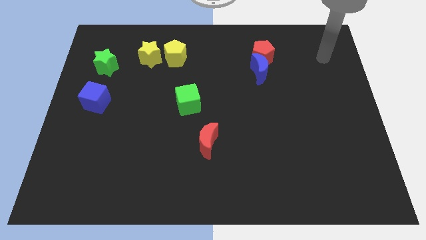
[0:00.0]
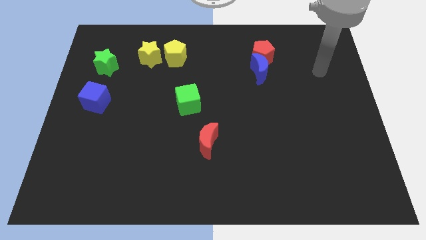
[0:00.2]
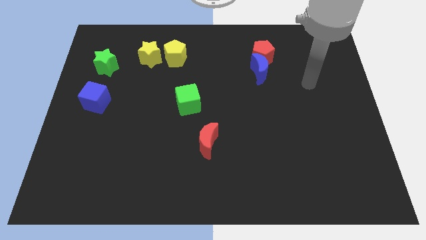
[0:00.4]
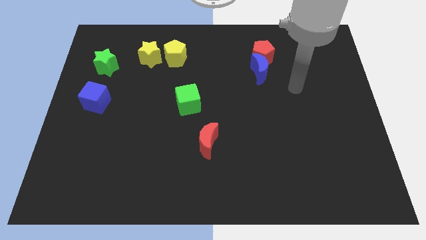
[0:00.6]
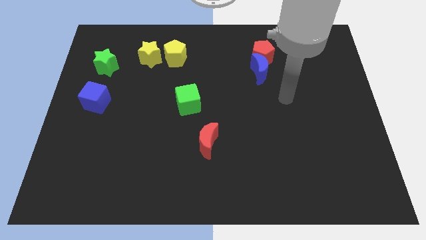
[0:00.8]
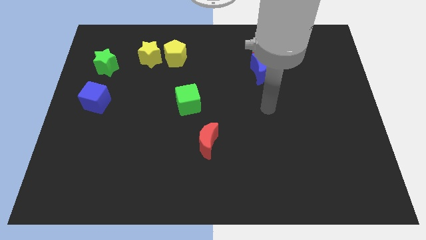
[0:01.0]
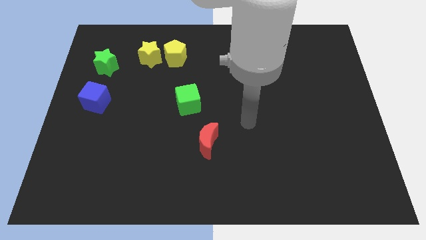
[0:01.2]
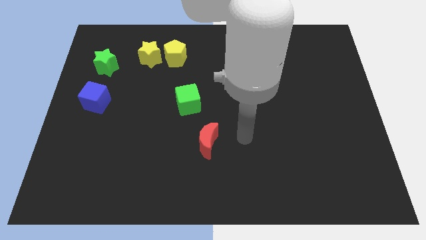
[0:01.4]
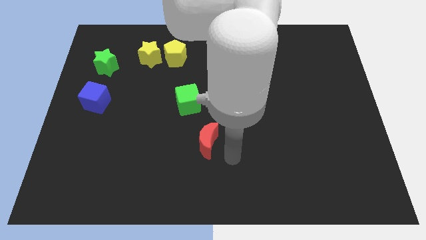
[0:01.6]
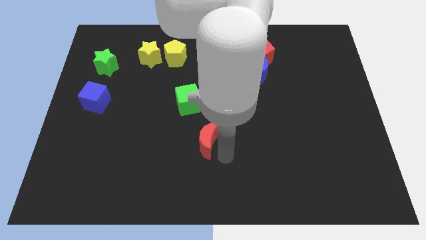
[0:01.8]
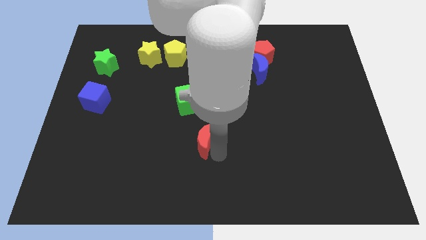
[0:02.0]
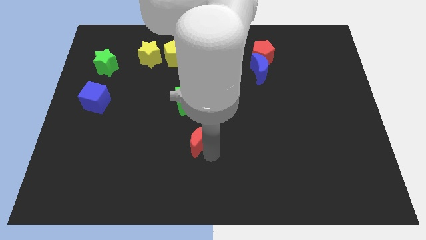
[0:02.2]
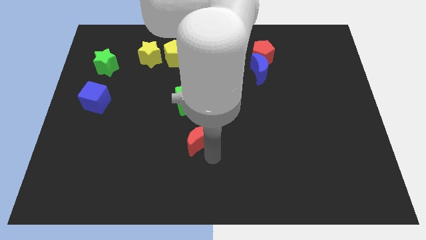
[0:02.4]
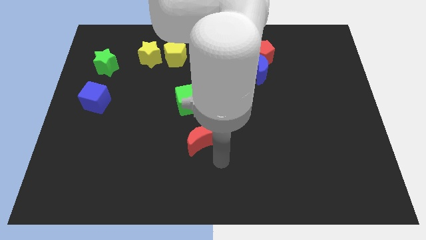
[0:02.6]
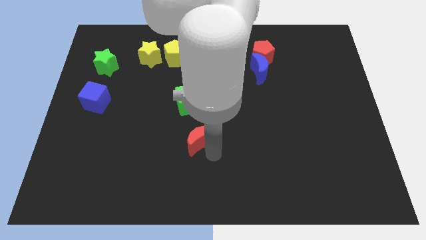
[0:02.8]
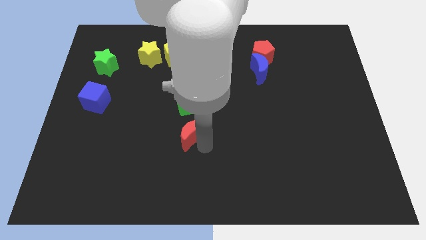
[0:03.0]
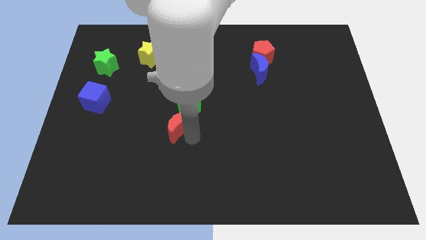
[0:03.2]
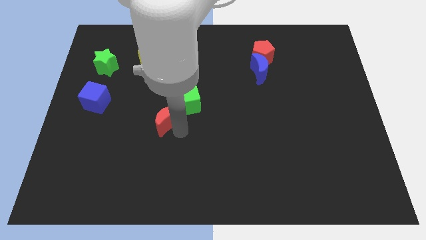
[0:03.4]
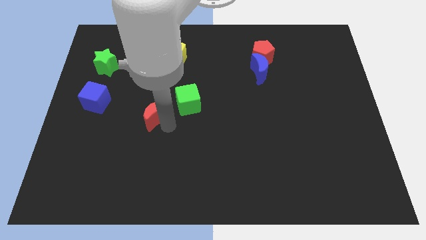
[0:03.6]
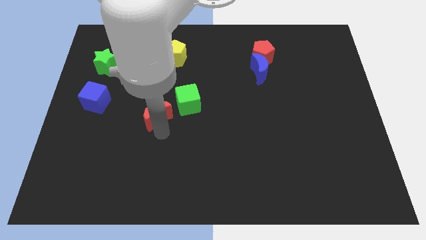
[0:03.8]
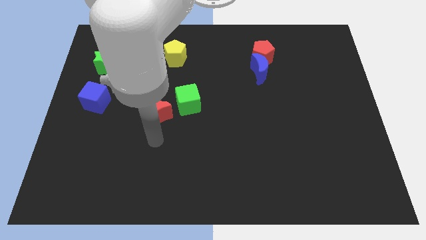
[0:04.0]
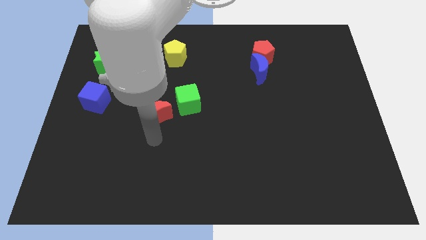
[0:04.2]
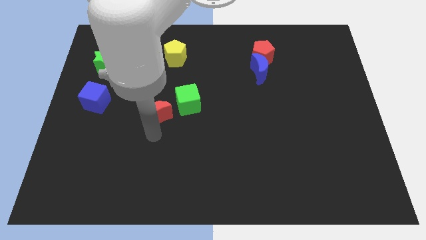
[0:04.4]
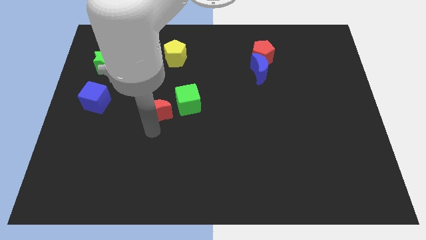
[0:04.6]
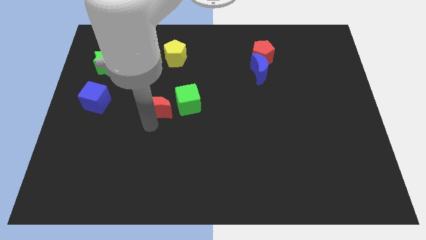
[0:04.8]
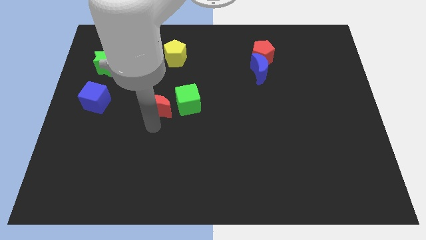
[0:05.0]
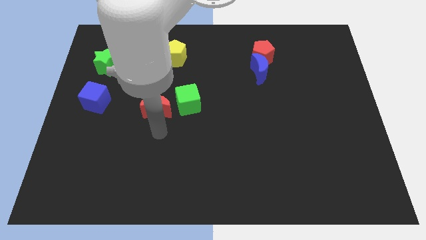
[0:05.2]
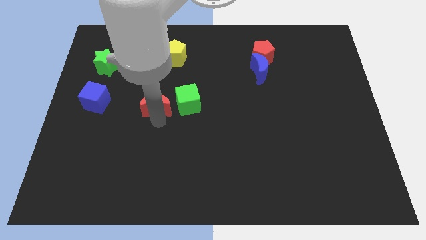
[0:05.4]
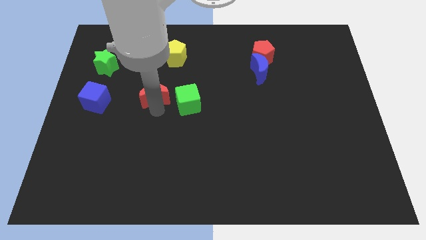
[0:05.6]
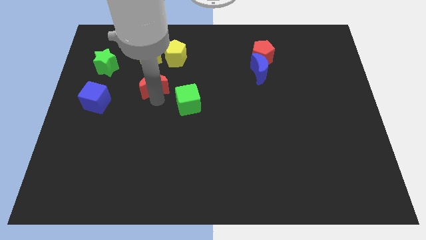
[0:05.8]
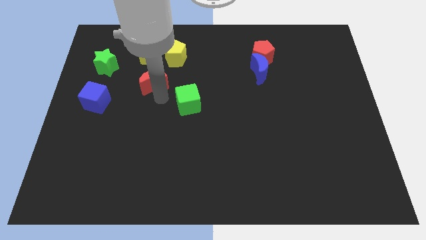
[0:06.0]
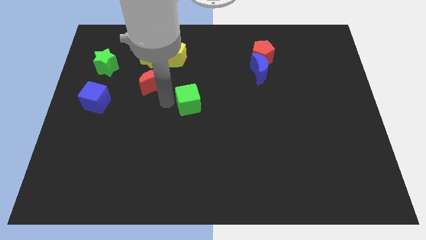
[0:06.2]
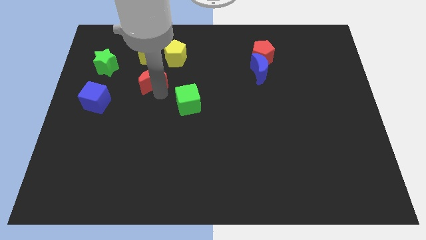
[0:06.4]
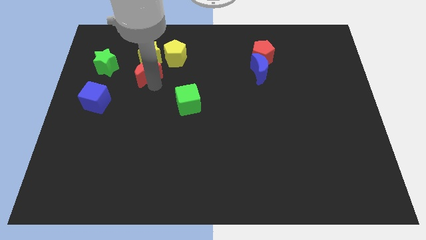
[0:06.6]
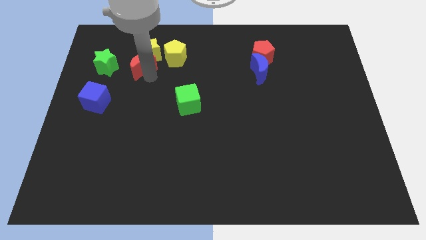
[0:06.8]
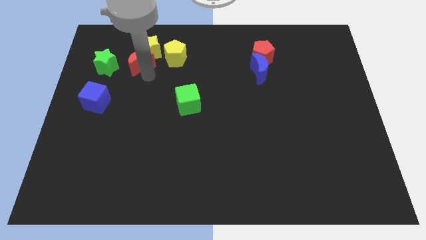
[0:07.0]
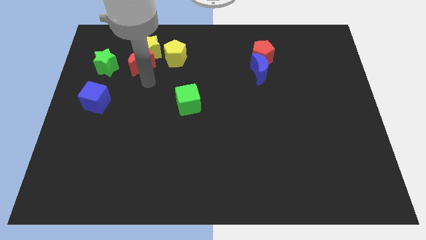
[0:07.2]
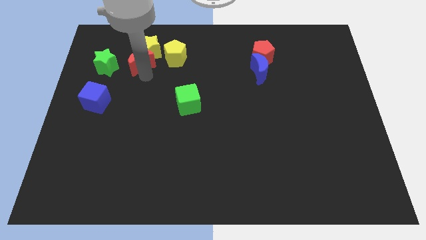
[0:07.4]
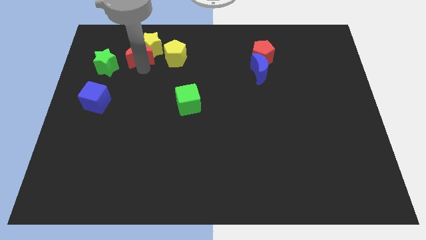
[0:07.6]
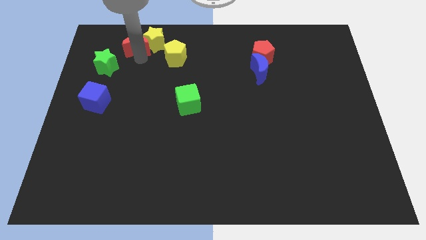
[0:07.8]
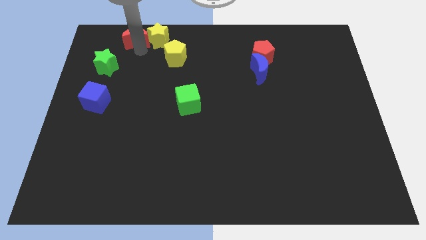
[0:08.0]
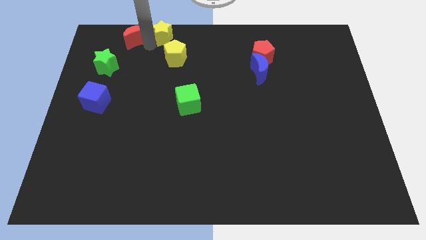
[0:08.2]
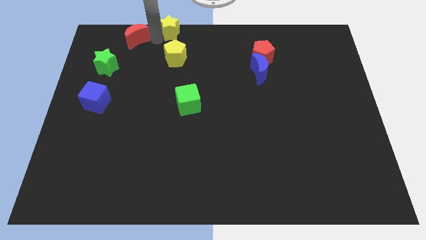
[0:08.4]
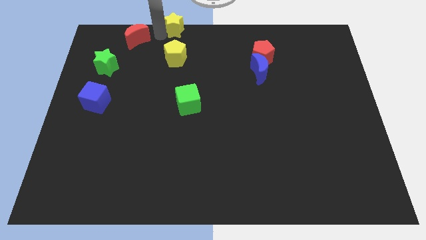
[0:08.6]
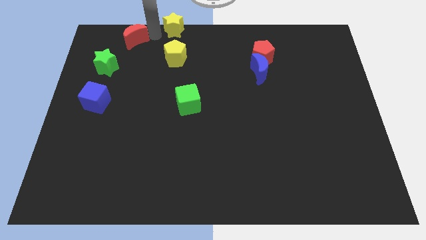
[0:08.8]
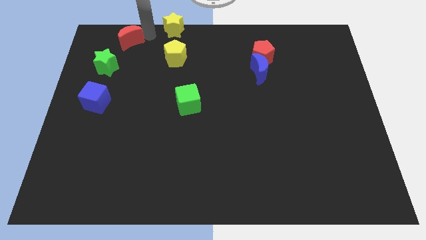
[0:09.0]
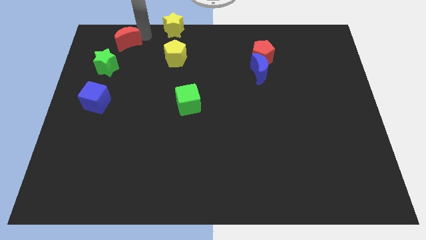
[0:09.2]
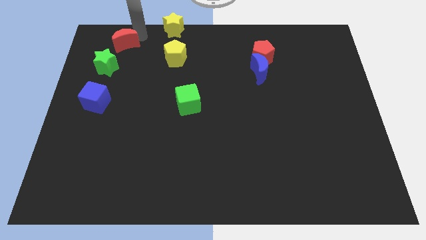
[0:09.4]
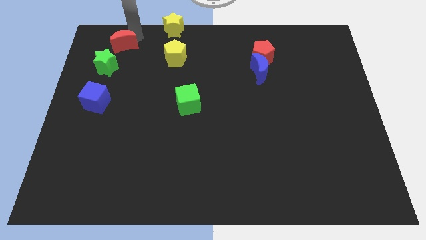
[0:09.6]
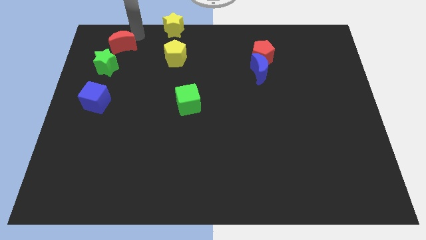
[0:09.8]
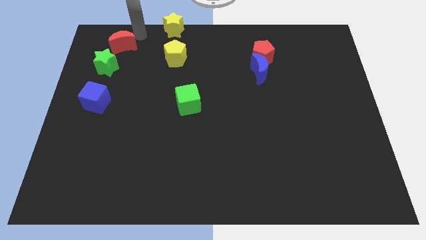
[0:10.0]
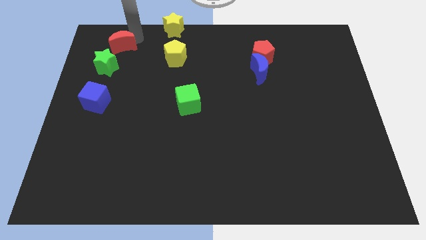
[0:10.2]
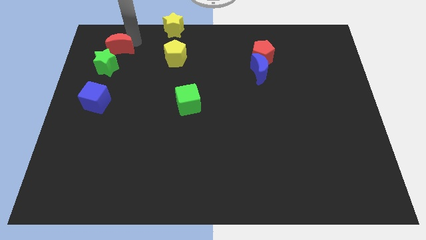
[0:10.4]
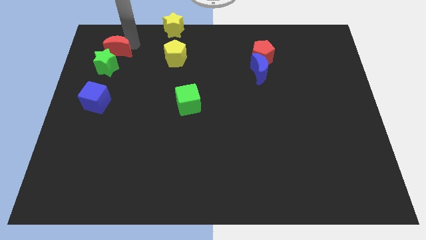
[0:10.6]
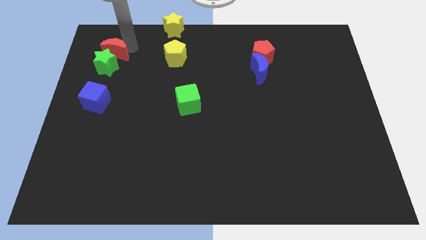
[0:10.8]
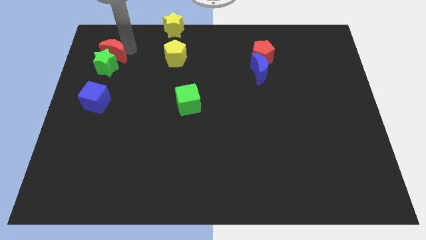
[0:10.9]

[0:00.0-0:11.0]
put the red moon to the top of the blue cube

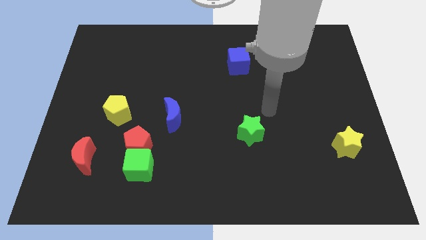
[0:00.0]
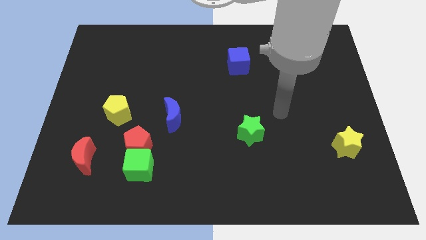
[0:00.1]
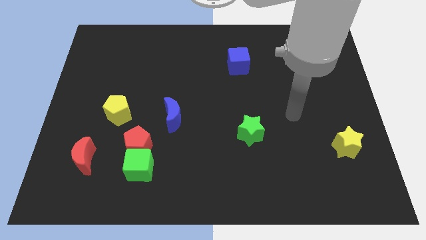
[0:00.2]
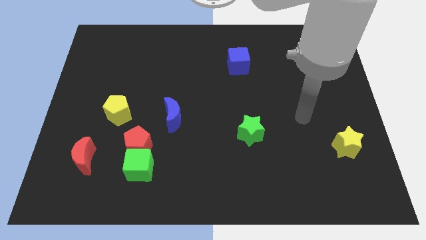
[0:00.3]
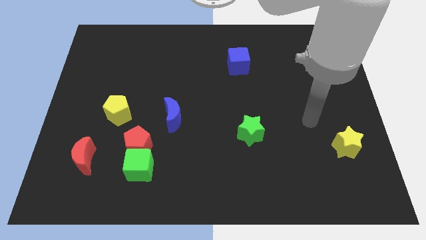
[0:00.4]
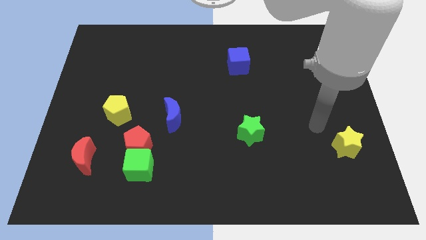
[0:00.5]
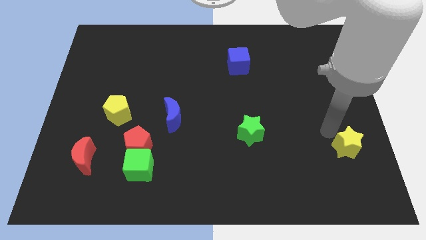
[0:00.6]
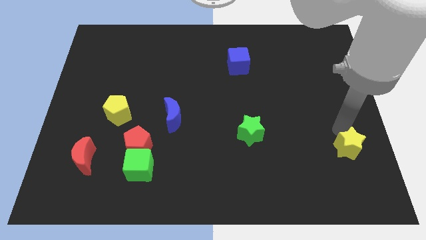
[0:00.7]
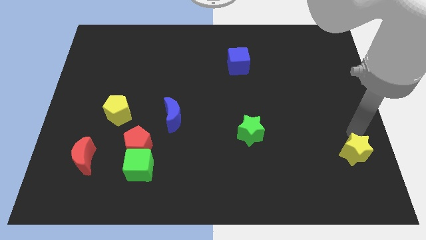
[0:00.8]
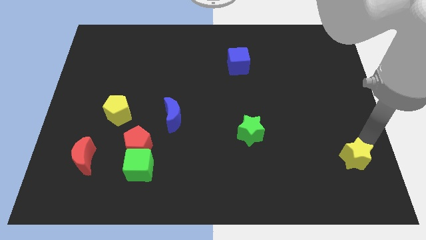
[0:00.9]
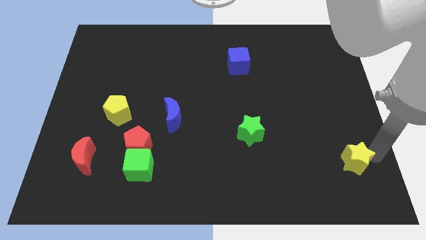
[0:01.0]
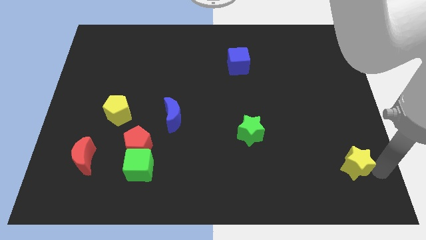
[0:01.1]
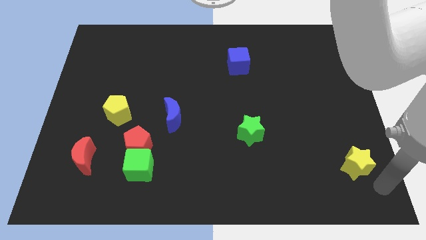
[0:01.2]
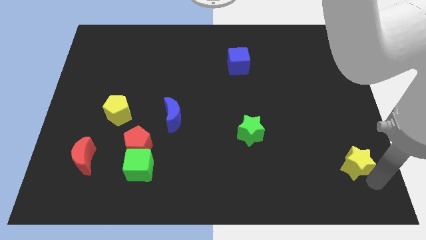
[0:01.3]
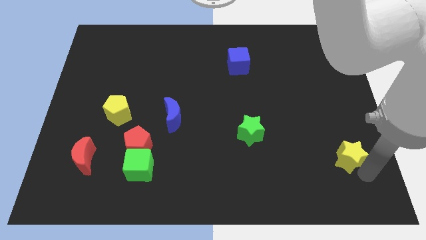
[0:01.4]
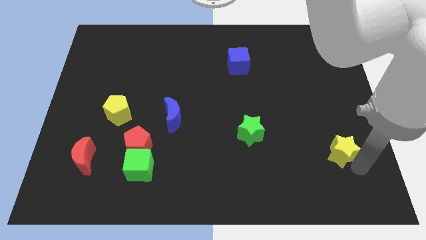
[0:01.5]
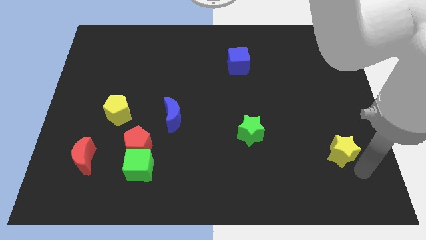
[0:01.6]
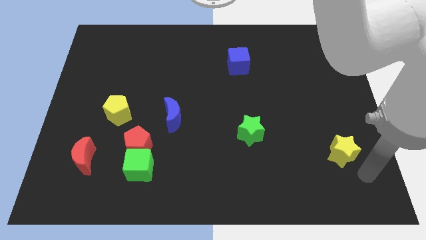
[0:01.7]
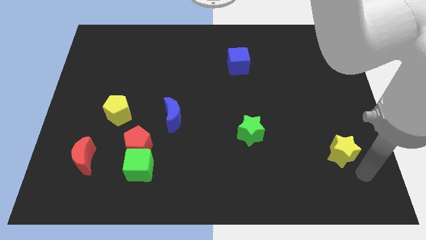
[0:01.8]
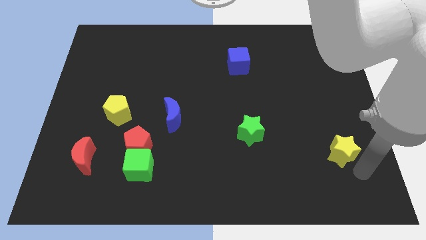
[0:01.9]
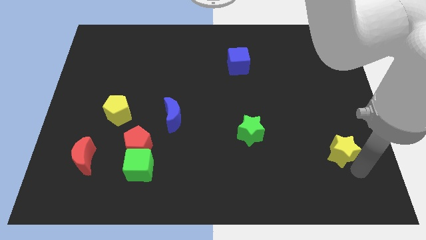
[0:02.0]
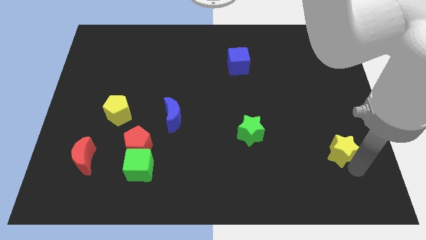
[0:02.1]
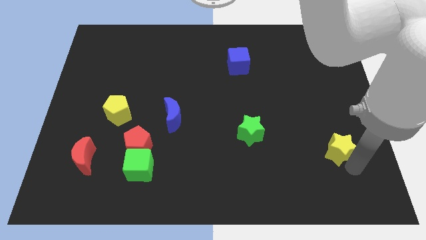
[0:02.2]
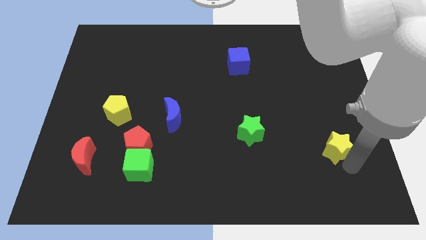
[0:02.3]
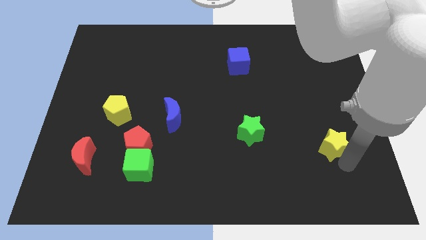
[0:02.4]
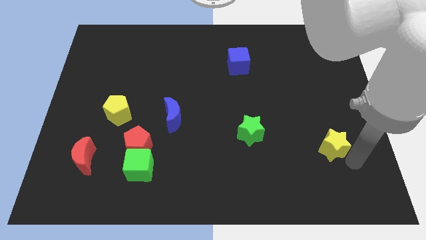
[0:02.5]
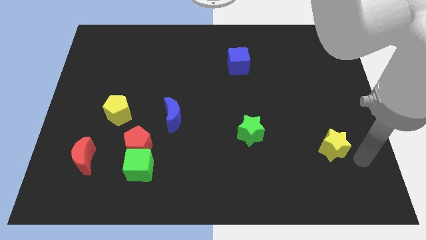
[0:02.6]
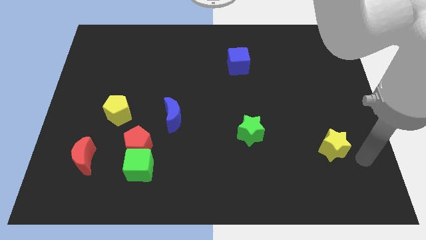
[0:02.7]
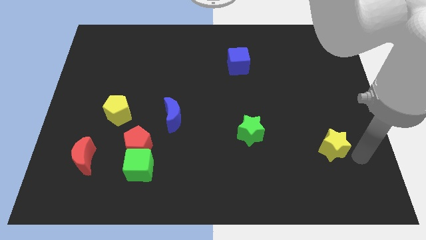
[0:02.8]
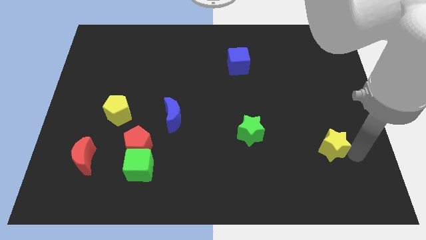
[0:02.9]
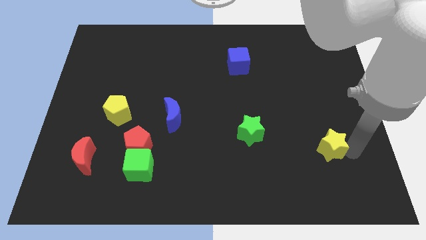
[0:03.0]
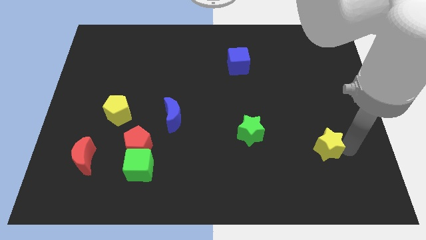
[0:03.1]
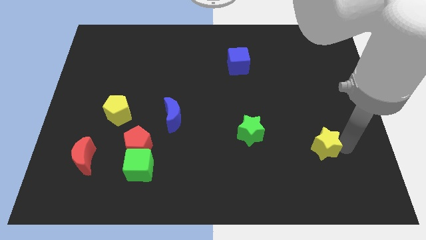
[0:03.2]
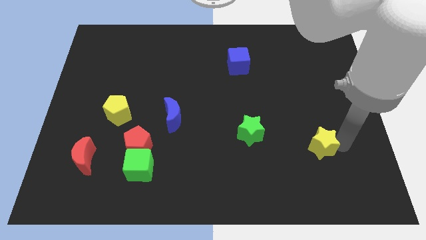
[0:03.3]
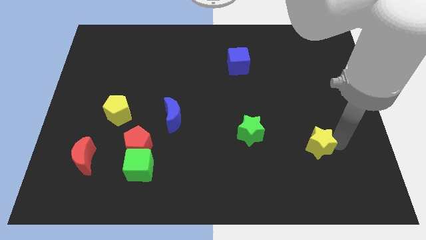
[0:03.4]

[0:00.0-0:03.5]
move the yellow star right of the green star
